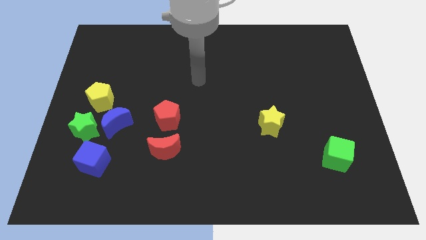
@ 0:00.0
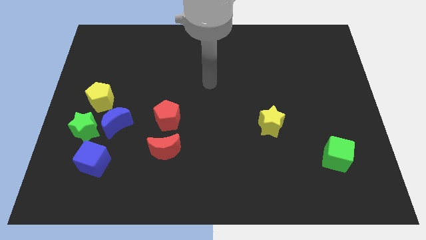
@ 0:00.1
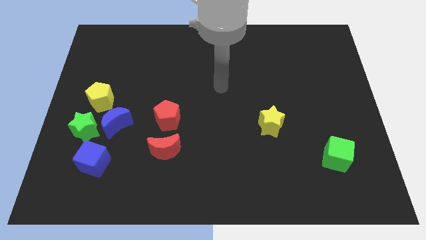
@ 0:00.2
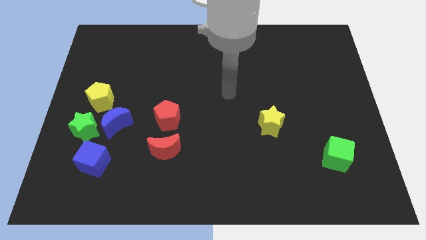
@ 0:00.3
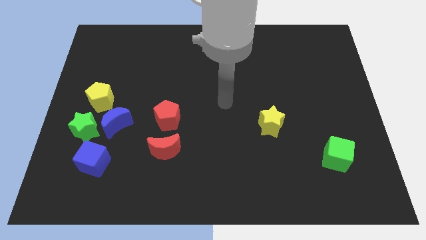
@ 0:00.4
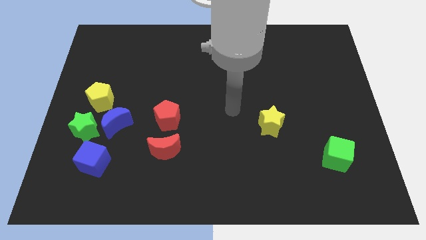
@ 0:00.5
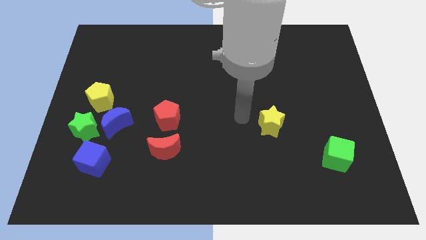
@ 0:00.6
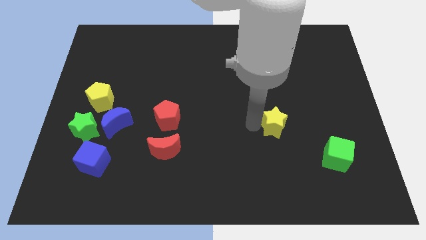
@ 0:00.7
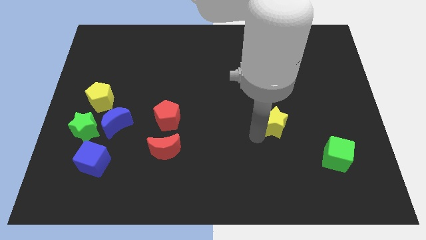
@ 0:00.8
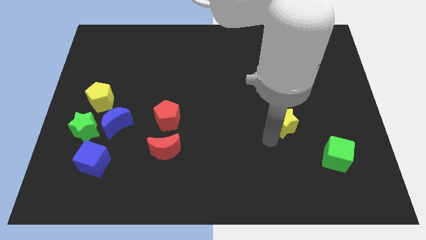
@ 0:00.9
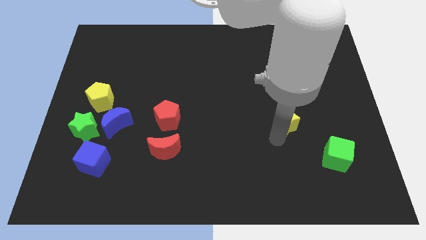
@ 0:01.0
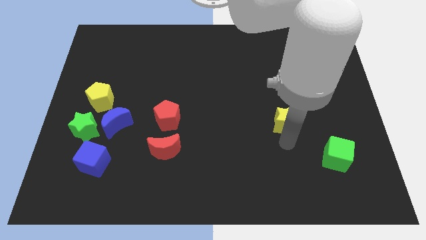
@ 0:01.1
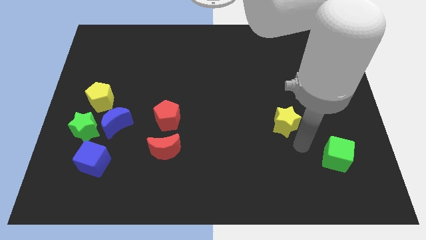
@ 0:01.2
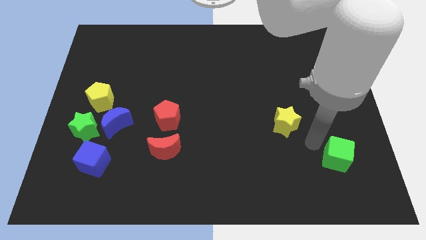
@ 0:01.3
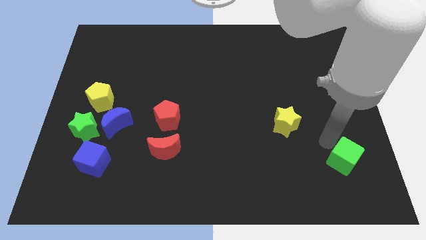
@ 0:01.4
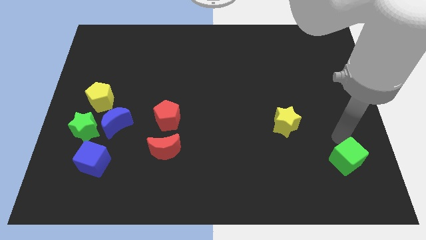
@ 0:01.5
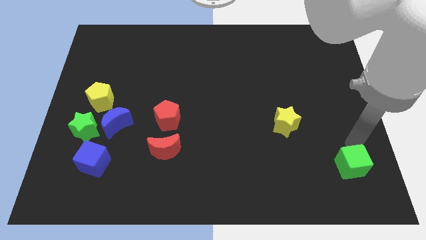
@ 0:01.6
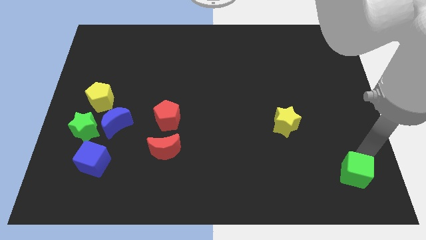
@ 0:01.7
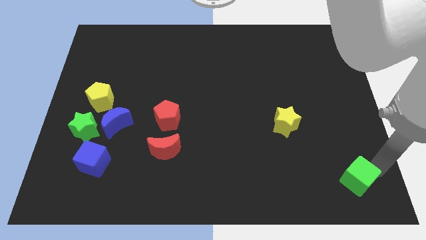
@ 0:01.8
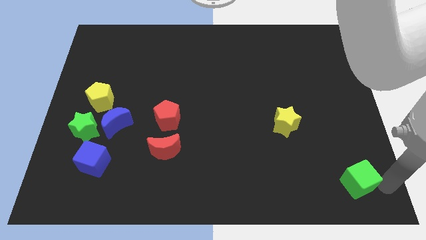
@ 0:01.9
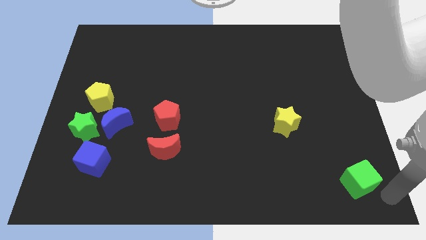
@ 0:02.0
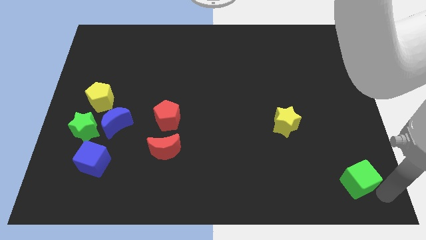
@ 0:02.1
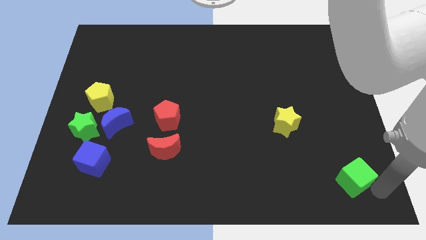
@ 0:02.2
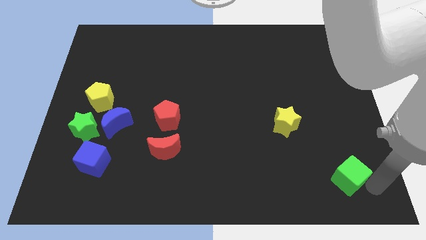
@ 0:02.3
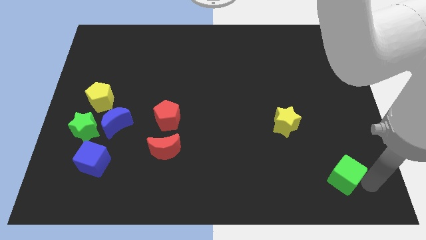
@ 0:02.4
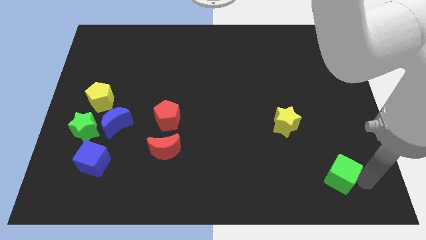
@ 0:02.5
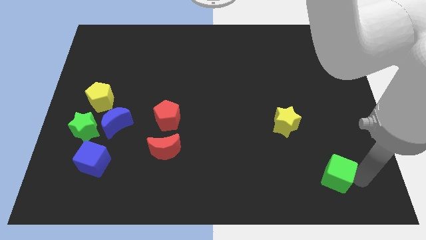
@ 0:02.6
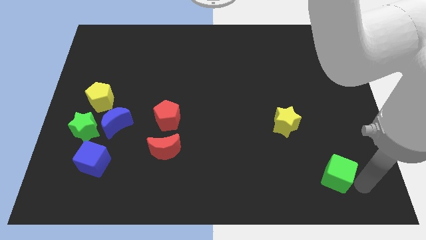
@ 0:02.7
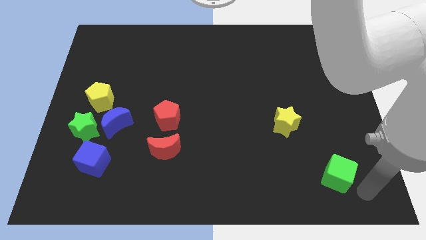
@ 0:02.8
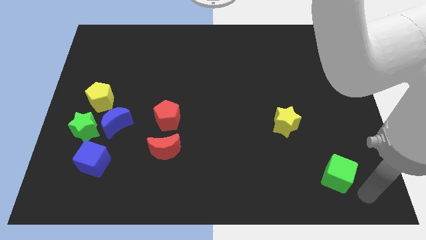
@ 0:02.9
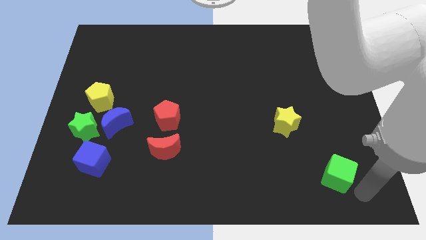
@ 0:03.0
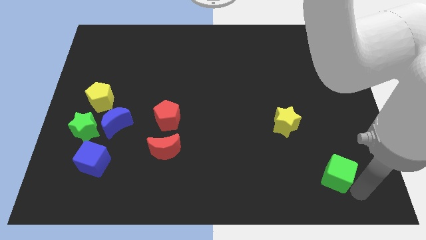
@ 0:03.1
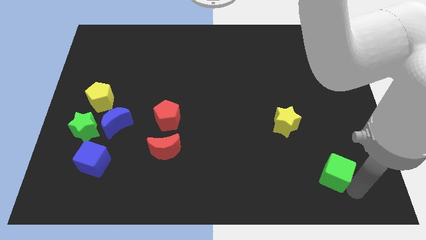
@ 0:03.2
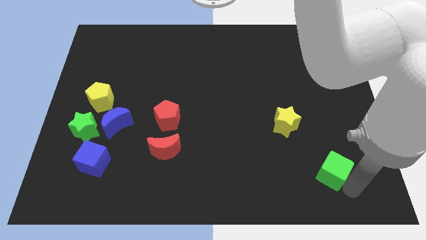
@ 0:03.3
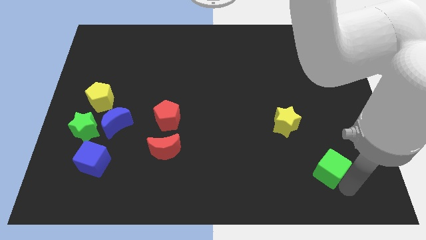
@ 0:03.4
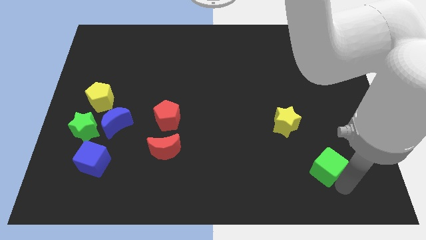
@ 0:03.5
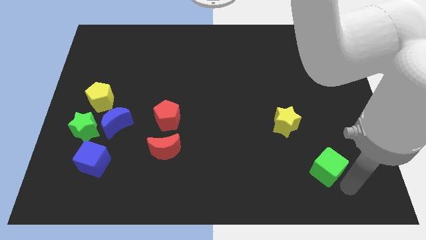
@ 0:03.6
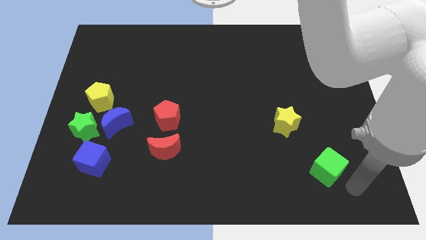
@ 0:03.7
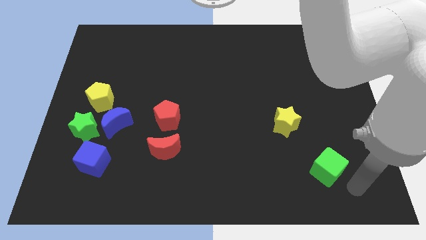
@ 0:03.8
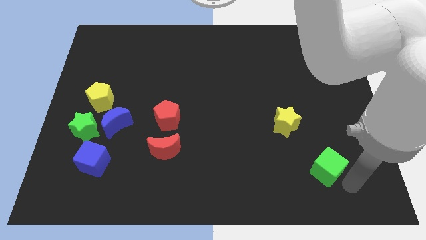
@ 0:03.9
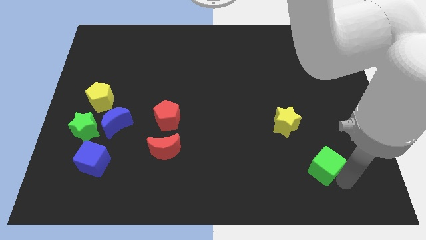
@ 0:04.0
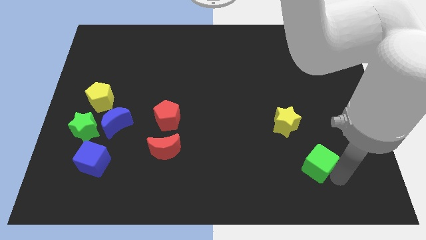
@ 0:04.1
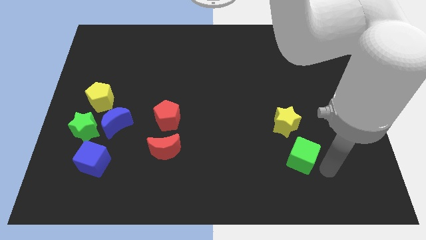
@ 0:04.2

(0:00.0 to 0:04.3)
slightly slide the green cube to the left

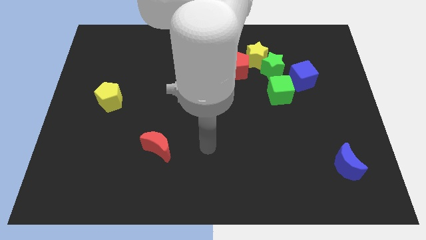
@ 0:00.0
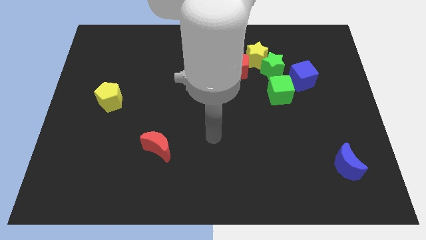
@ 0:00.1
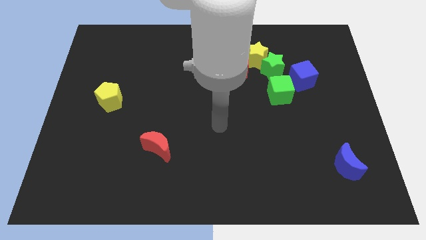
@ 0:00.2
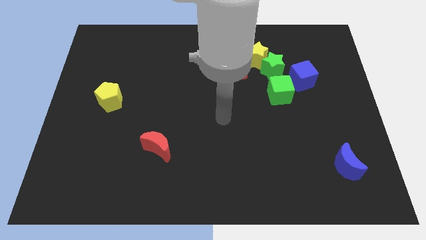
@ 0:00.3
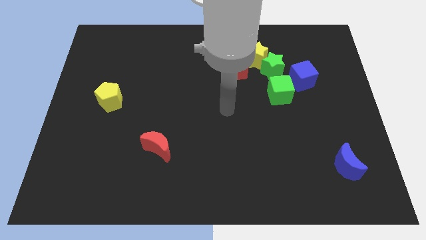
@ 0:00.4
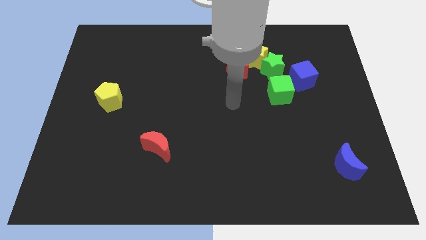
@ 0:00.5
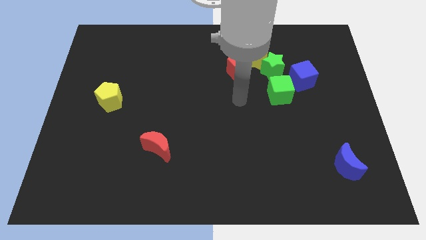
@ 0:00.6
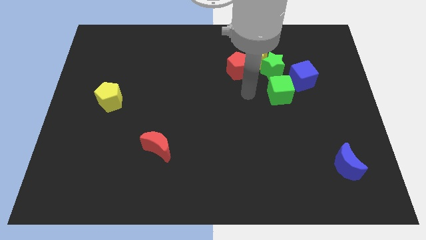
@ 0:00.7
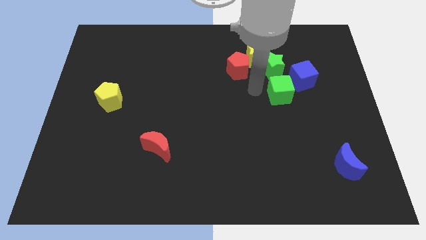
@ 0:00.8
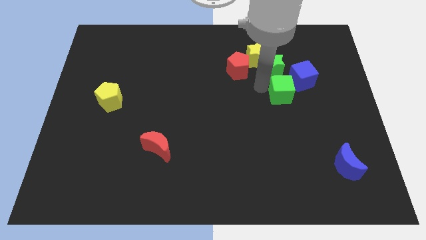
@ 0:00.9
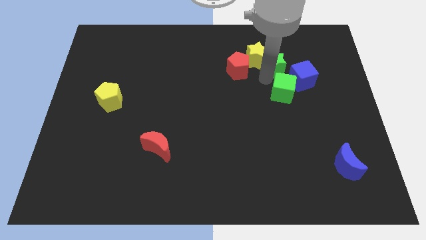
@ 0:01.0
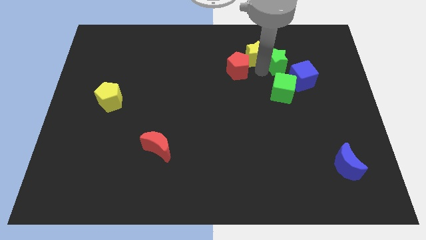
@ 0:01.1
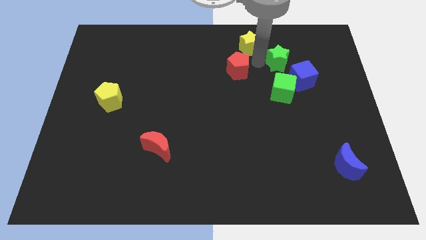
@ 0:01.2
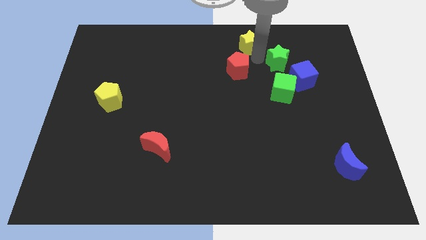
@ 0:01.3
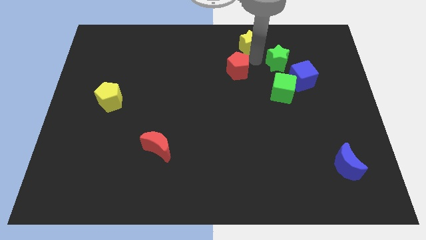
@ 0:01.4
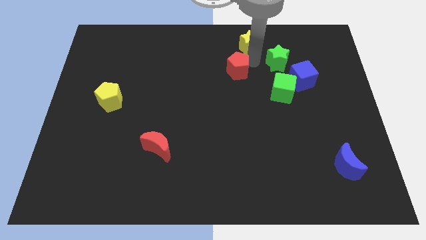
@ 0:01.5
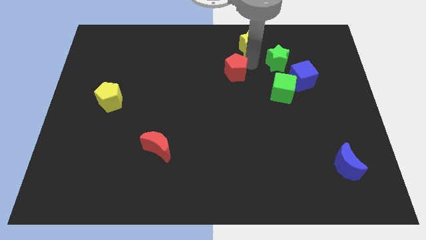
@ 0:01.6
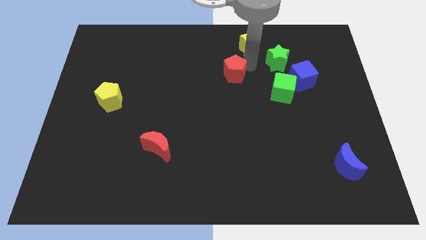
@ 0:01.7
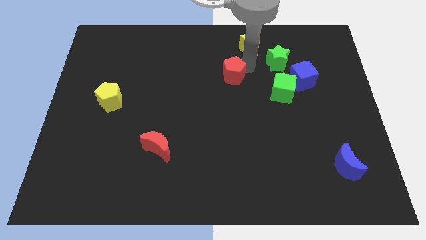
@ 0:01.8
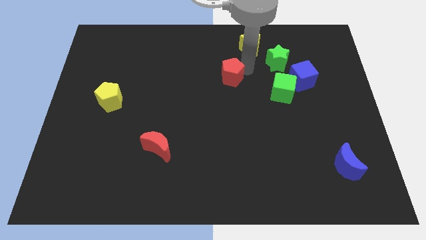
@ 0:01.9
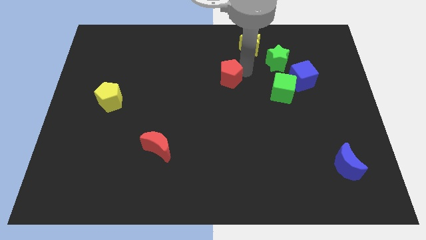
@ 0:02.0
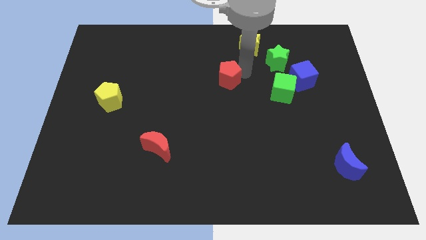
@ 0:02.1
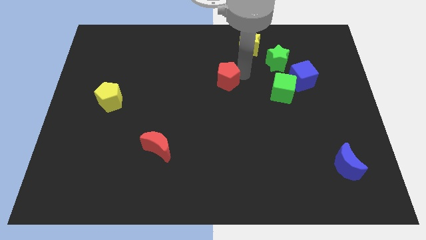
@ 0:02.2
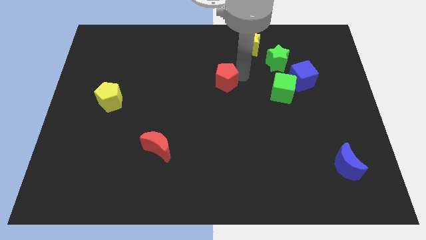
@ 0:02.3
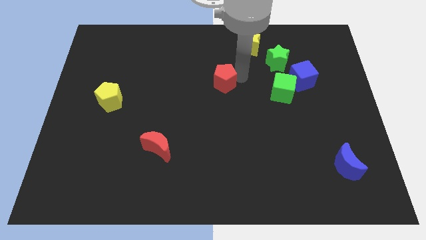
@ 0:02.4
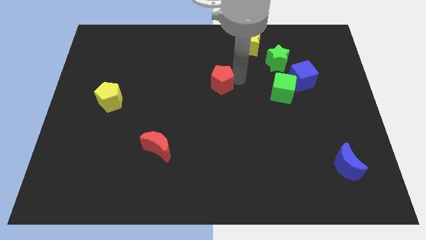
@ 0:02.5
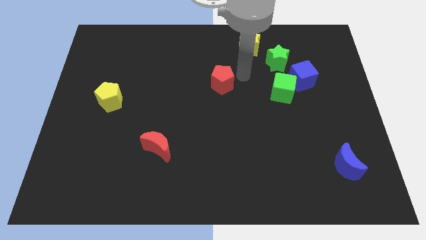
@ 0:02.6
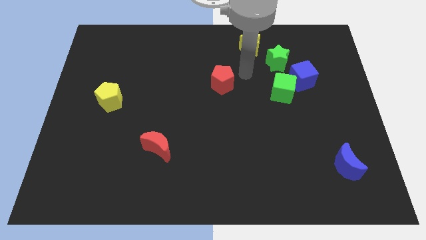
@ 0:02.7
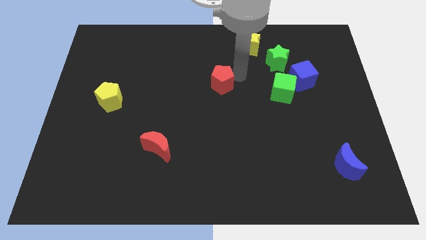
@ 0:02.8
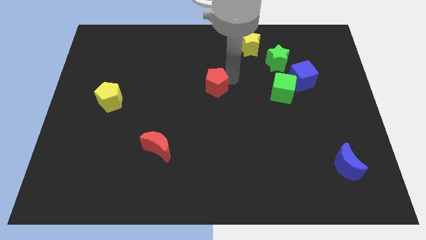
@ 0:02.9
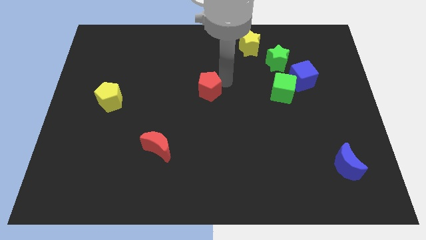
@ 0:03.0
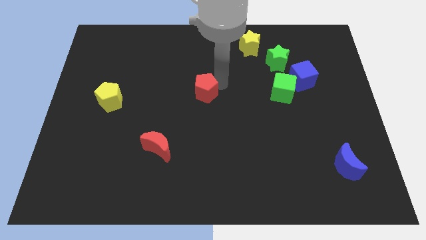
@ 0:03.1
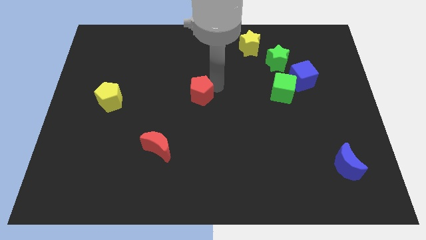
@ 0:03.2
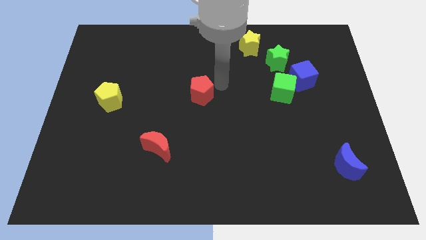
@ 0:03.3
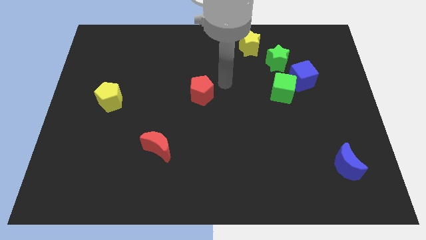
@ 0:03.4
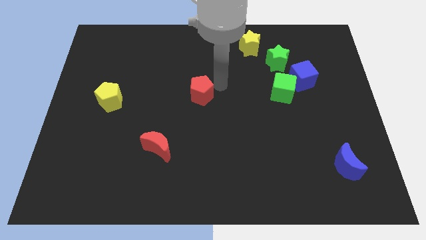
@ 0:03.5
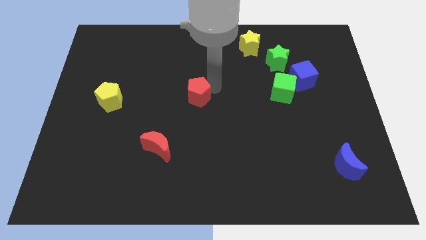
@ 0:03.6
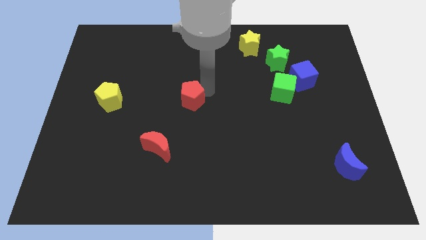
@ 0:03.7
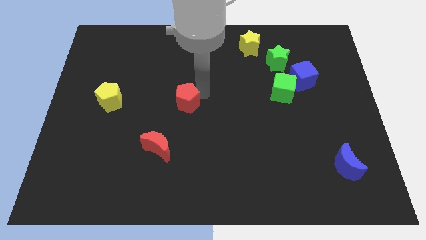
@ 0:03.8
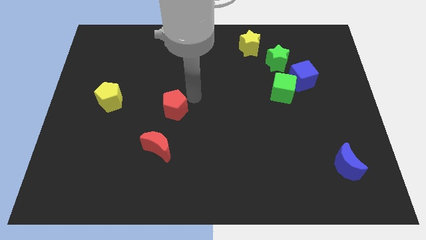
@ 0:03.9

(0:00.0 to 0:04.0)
push the red pentagon downwards and left
